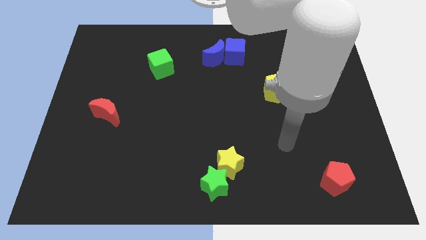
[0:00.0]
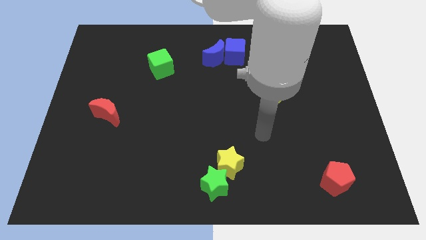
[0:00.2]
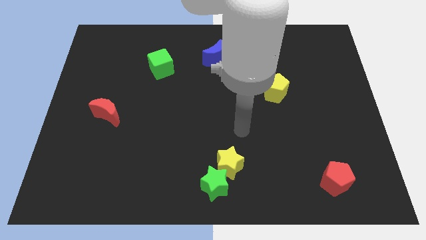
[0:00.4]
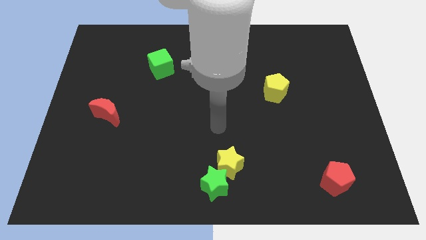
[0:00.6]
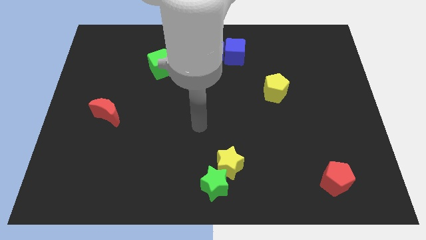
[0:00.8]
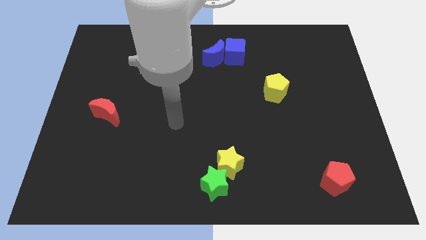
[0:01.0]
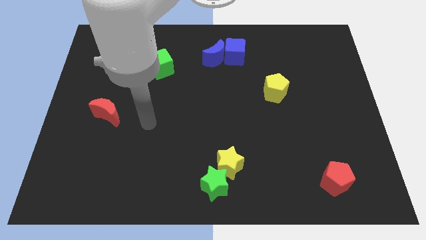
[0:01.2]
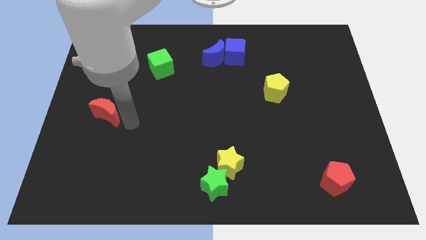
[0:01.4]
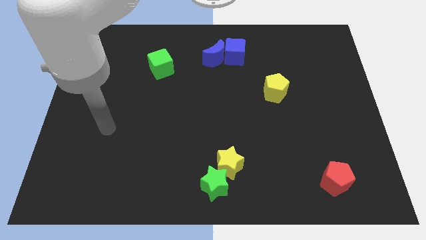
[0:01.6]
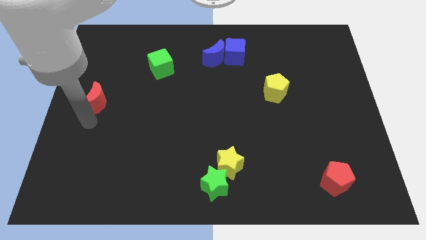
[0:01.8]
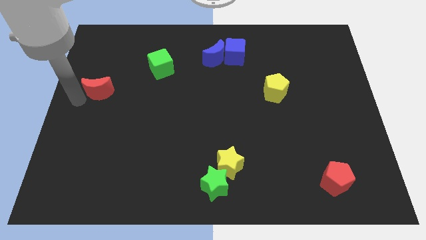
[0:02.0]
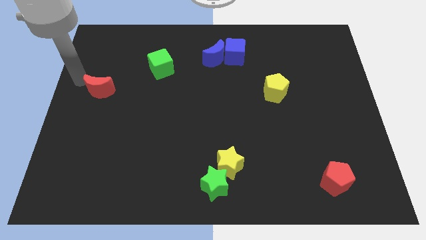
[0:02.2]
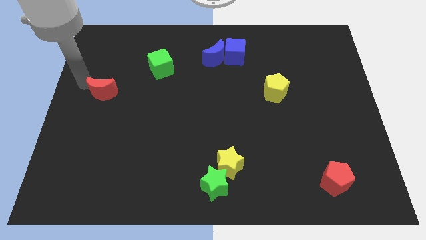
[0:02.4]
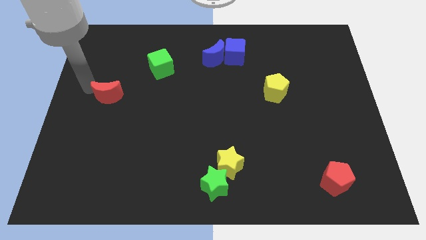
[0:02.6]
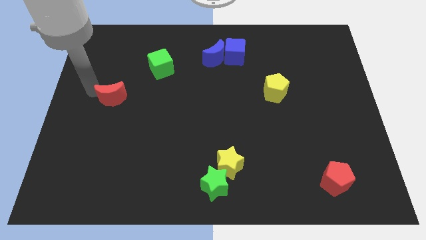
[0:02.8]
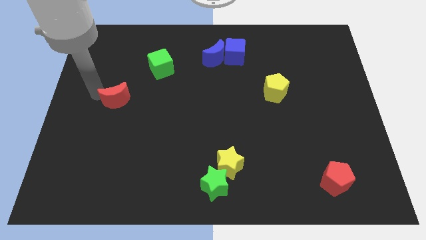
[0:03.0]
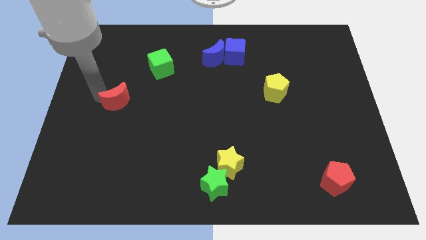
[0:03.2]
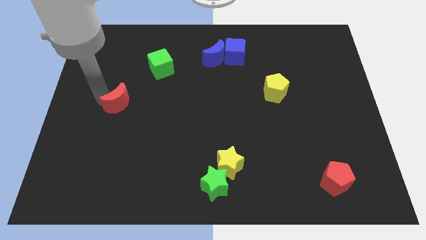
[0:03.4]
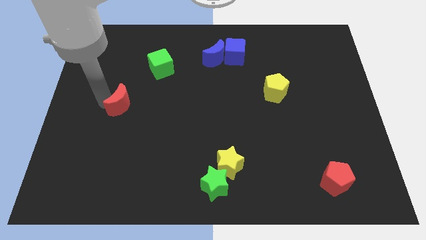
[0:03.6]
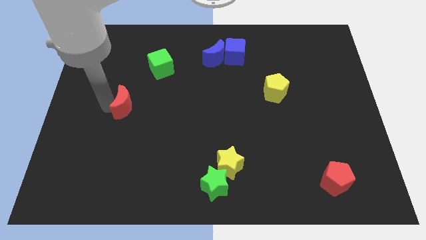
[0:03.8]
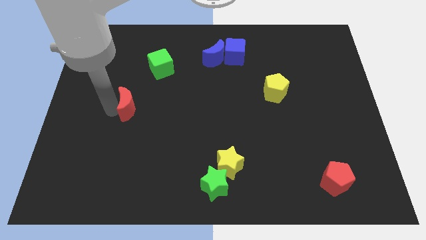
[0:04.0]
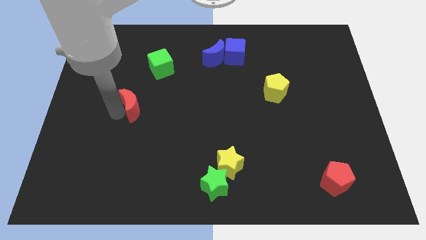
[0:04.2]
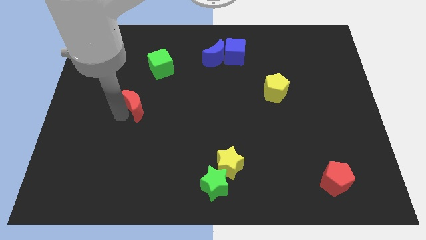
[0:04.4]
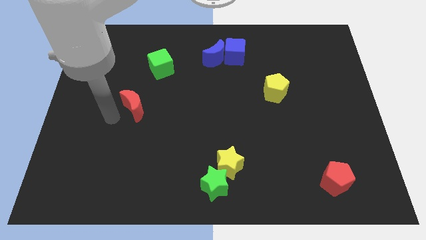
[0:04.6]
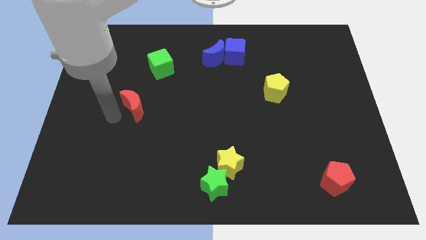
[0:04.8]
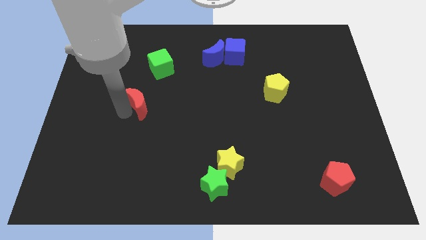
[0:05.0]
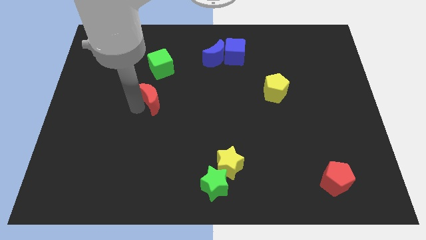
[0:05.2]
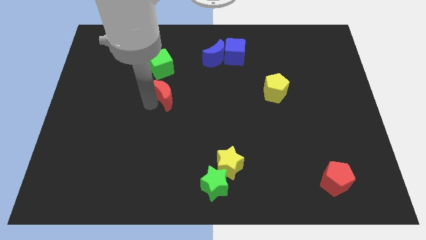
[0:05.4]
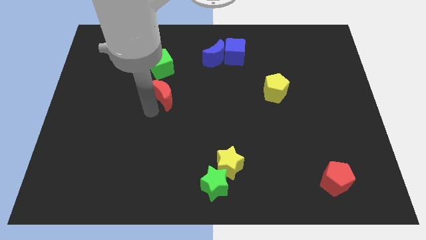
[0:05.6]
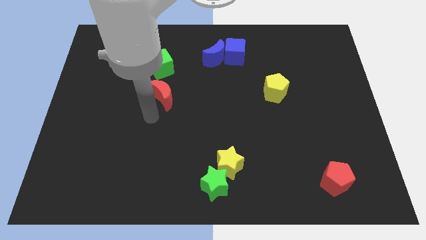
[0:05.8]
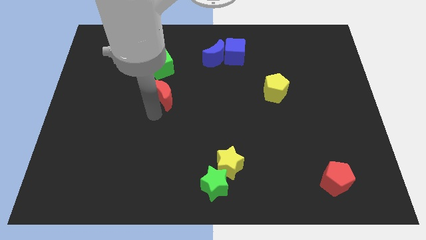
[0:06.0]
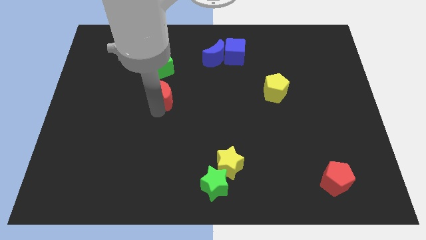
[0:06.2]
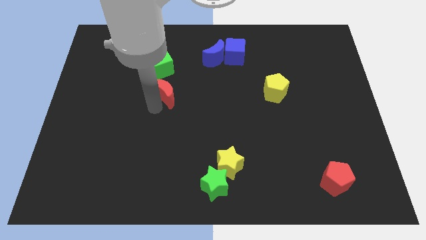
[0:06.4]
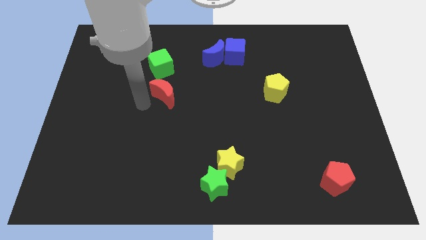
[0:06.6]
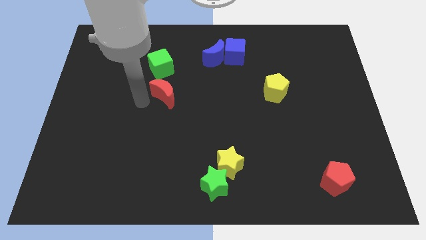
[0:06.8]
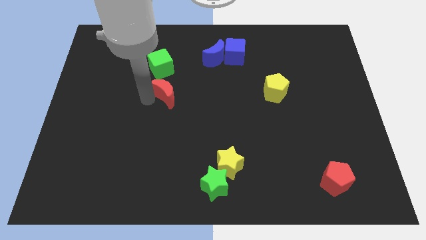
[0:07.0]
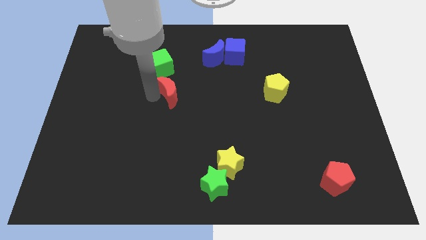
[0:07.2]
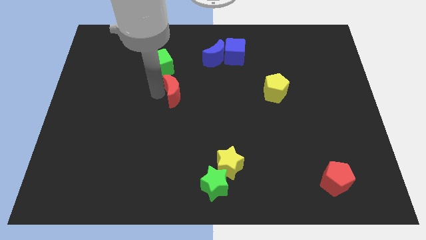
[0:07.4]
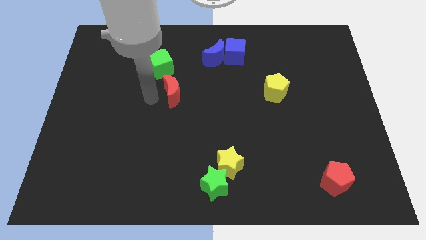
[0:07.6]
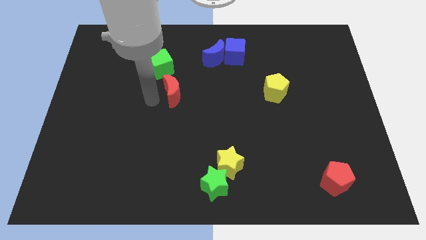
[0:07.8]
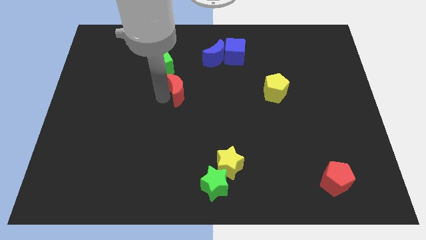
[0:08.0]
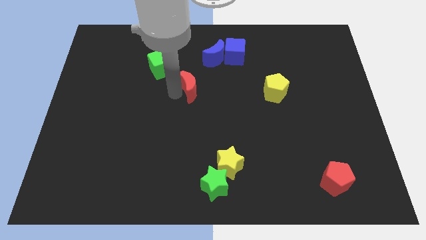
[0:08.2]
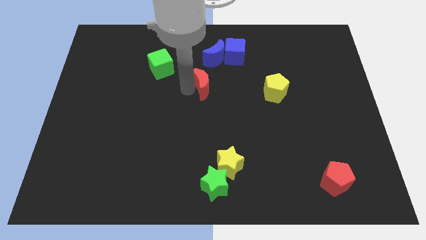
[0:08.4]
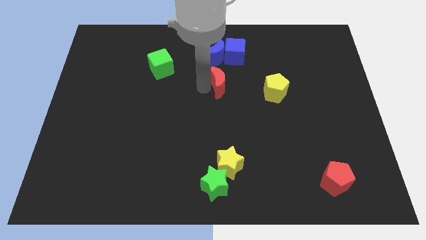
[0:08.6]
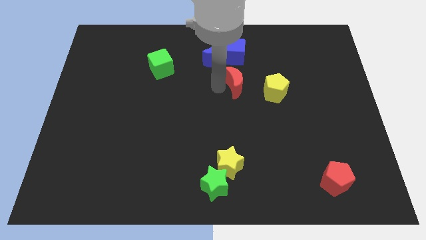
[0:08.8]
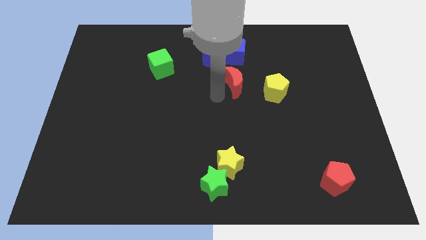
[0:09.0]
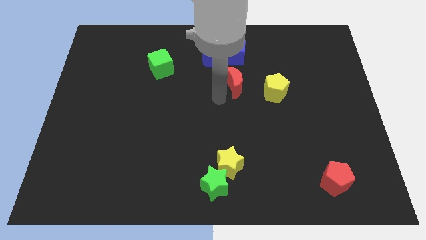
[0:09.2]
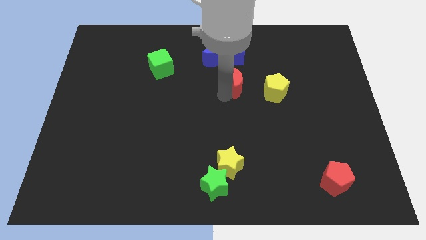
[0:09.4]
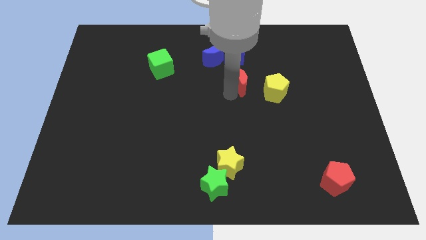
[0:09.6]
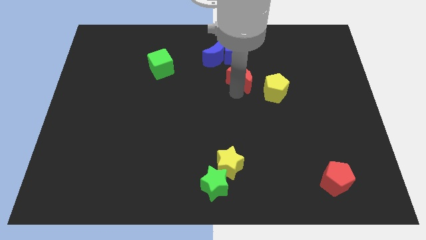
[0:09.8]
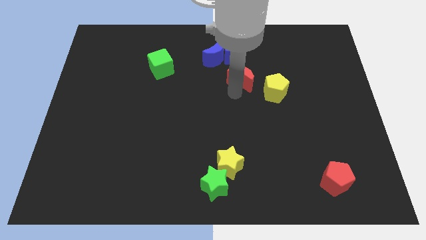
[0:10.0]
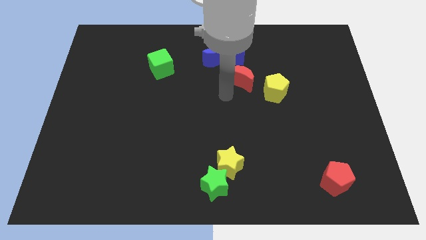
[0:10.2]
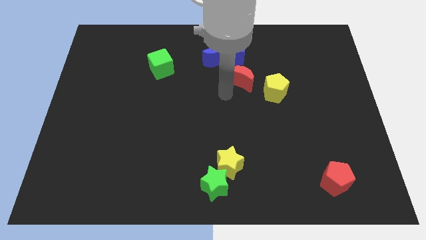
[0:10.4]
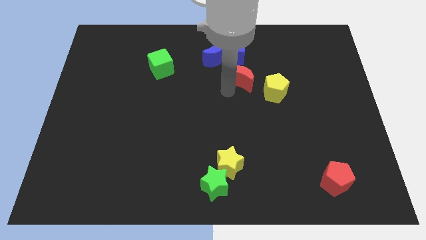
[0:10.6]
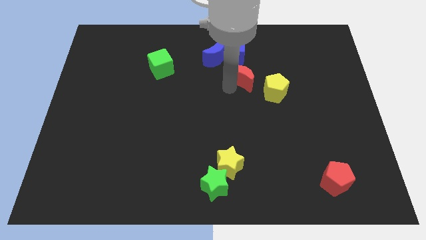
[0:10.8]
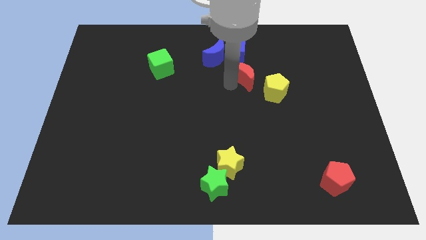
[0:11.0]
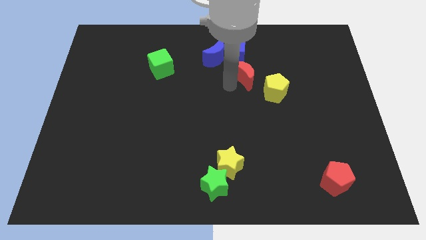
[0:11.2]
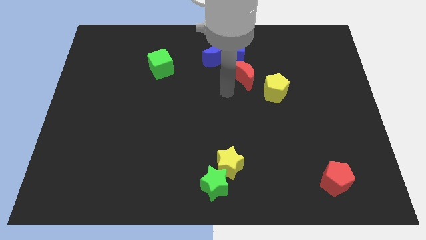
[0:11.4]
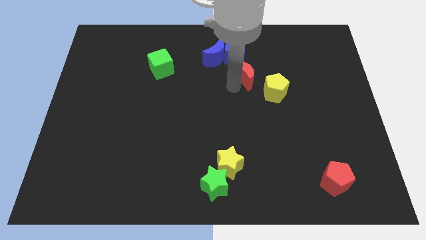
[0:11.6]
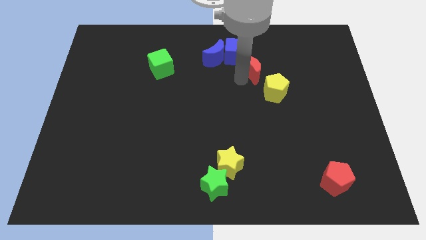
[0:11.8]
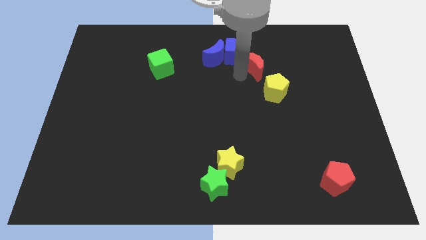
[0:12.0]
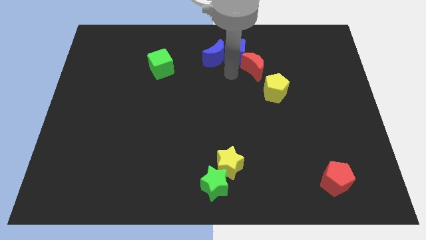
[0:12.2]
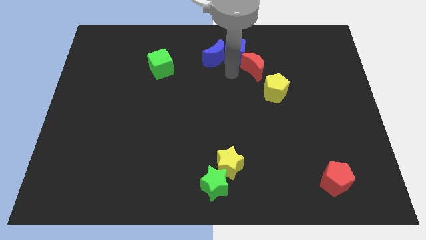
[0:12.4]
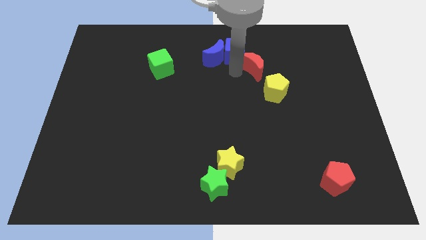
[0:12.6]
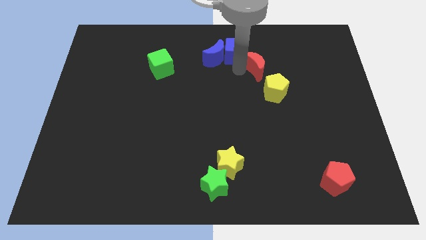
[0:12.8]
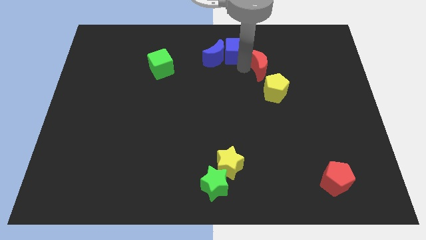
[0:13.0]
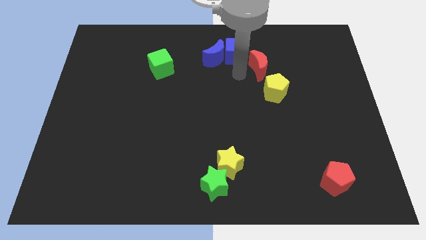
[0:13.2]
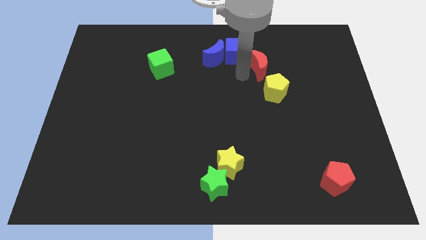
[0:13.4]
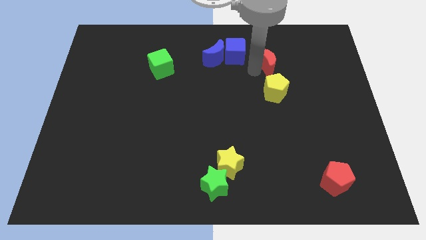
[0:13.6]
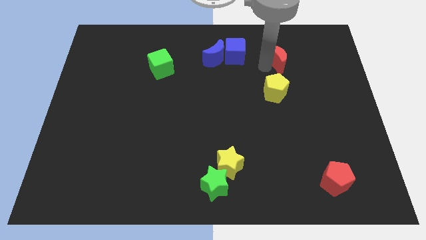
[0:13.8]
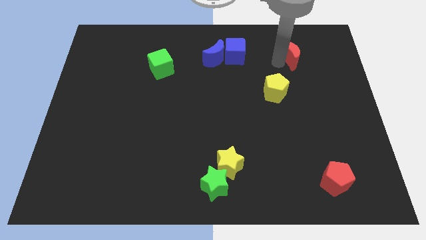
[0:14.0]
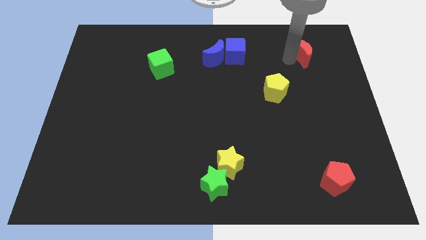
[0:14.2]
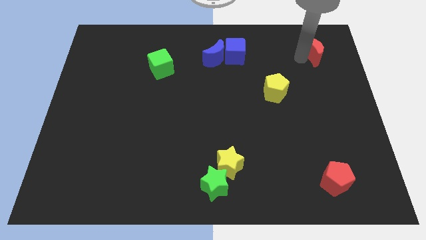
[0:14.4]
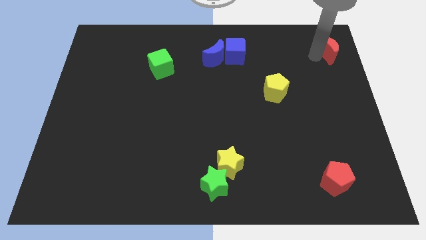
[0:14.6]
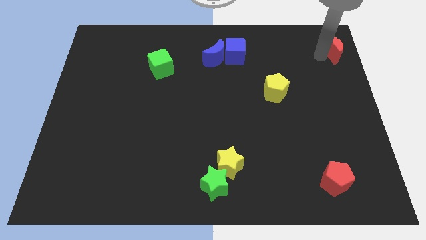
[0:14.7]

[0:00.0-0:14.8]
push the red moon to the upper right corner
